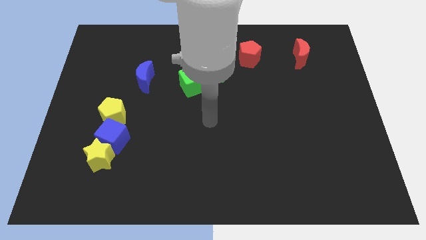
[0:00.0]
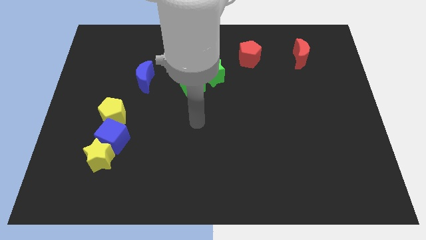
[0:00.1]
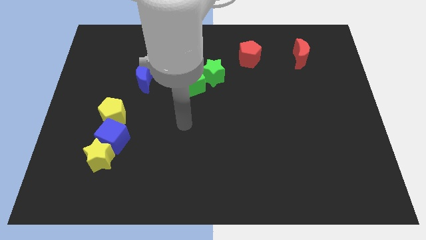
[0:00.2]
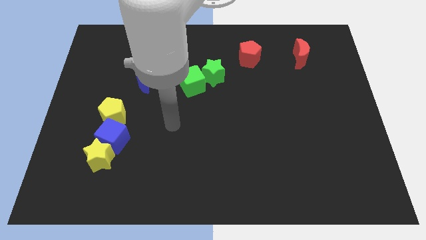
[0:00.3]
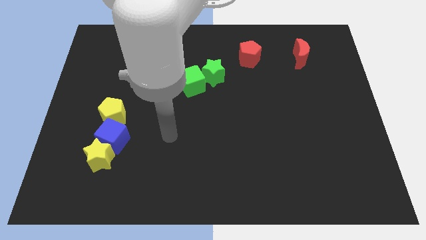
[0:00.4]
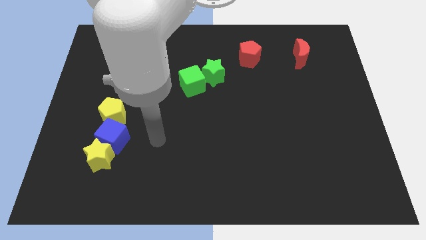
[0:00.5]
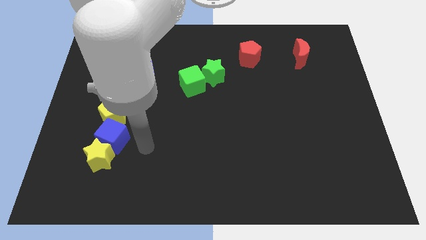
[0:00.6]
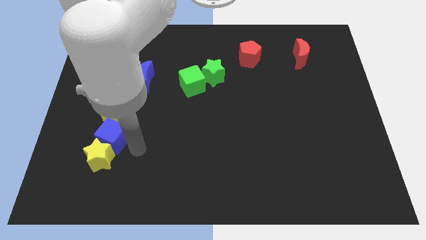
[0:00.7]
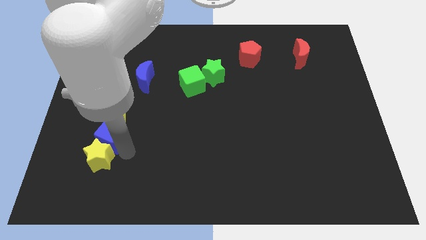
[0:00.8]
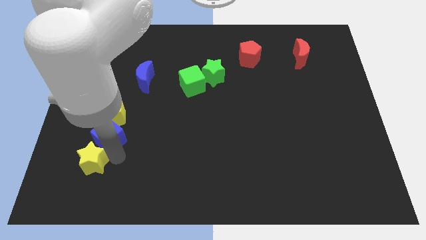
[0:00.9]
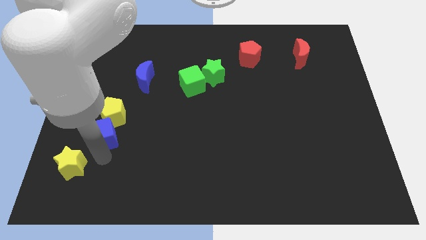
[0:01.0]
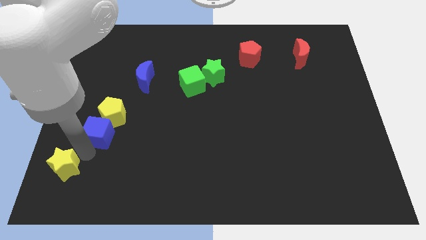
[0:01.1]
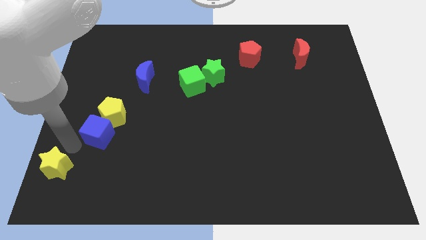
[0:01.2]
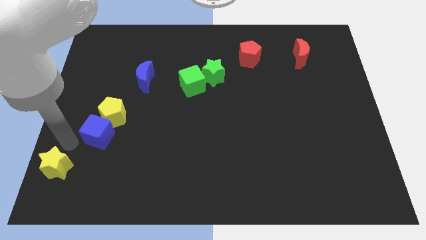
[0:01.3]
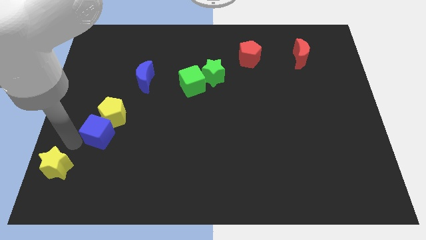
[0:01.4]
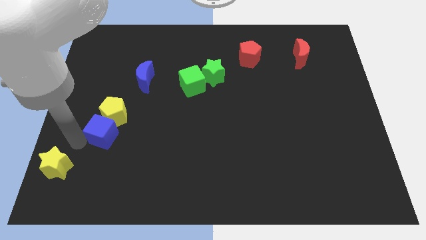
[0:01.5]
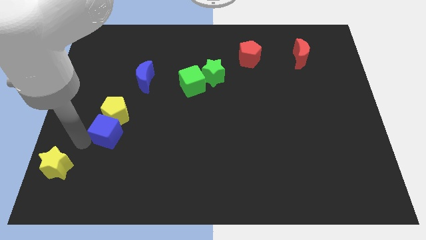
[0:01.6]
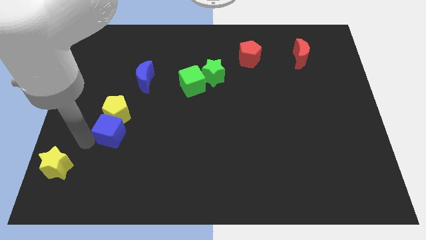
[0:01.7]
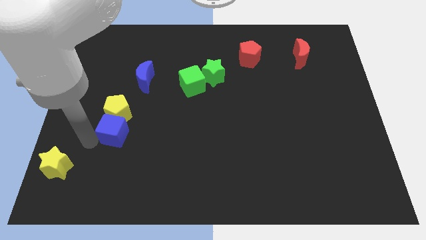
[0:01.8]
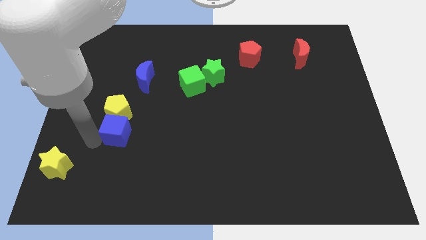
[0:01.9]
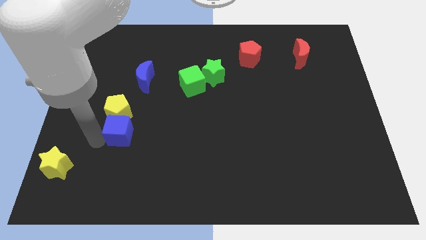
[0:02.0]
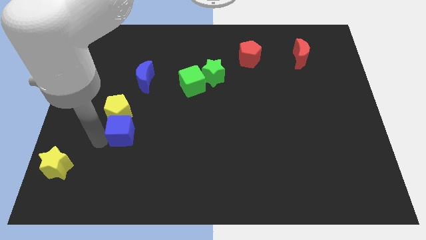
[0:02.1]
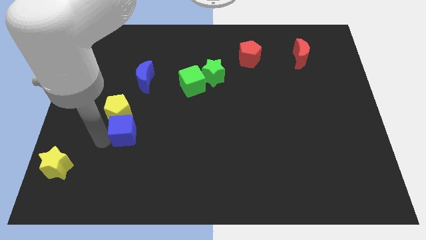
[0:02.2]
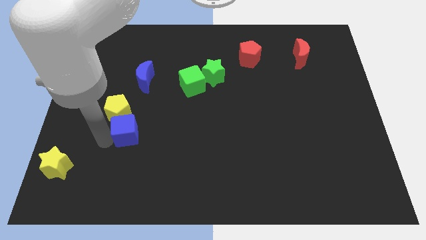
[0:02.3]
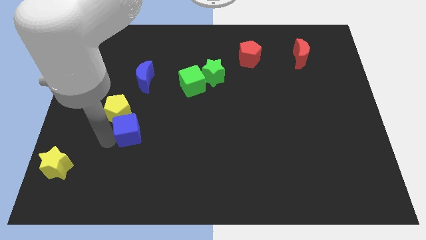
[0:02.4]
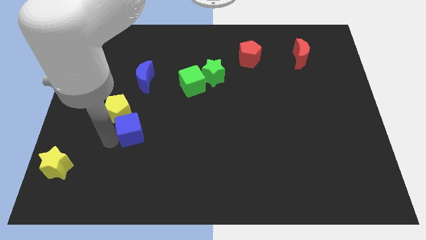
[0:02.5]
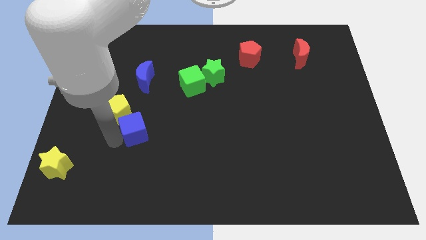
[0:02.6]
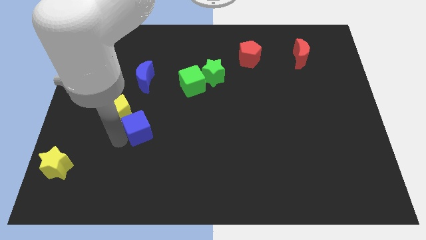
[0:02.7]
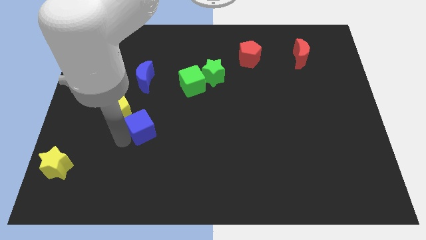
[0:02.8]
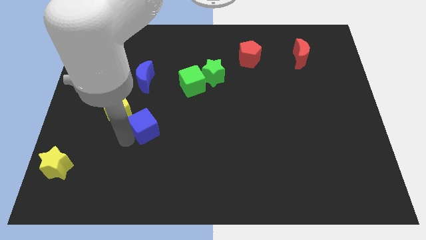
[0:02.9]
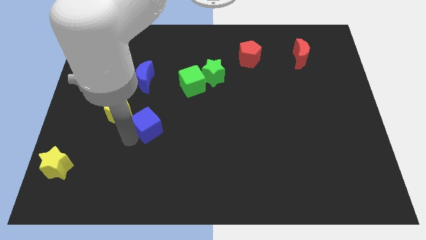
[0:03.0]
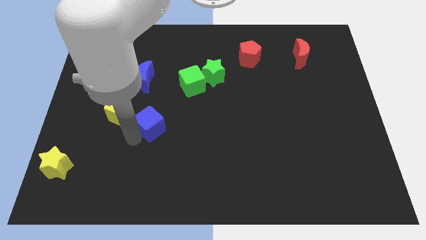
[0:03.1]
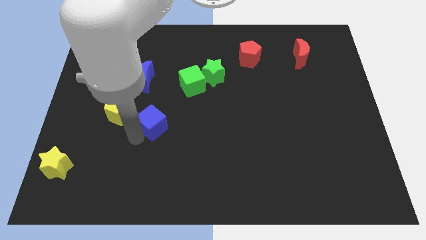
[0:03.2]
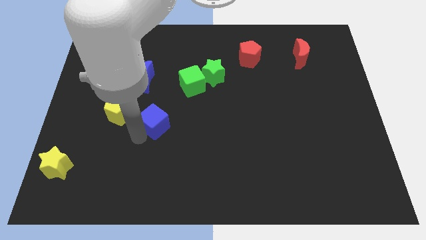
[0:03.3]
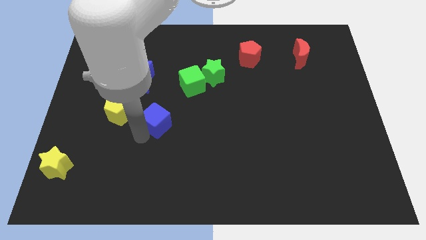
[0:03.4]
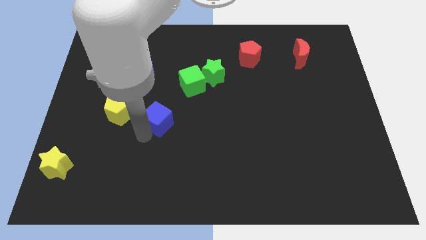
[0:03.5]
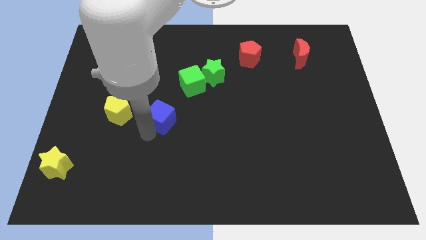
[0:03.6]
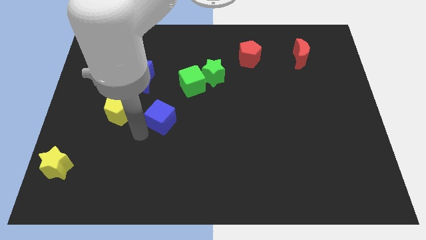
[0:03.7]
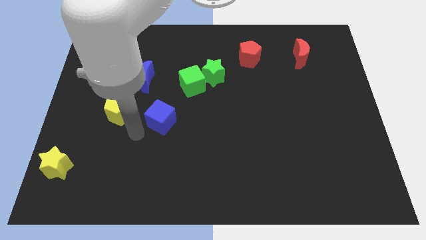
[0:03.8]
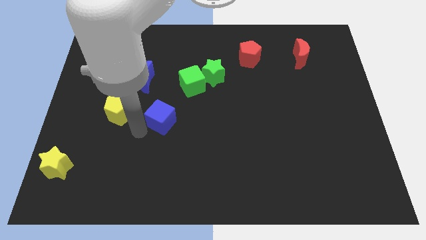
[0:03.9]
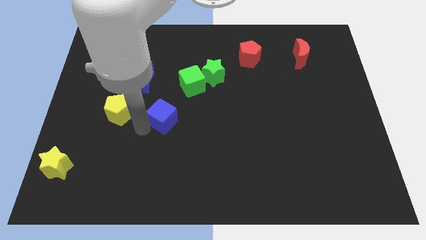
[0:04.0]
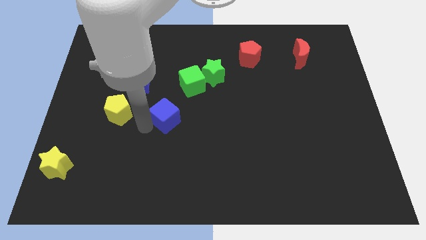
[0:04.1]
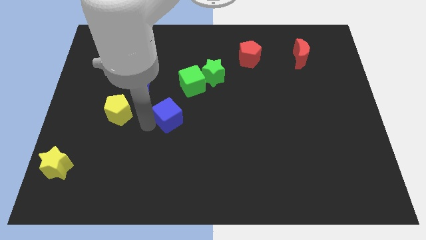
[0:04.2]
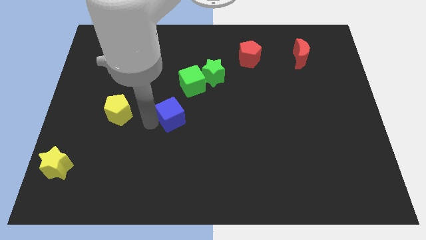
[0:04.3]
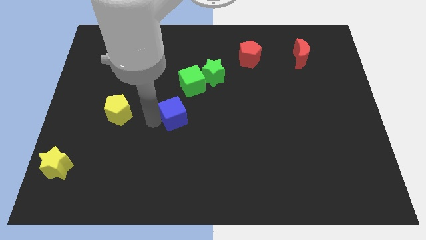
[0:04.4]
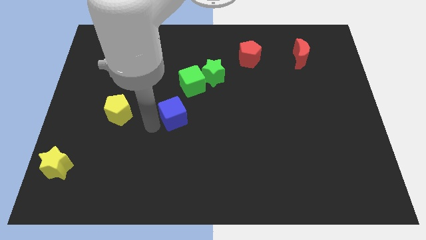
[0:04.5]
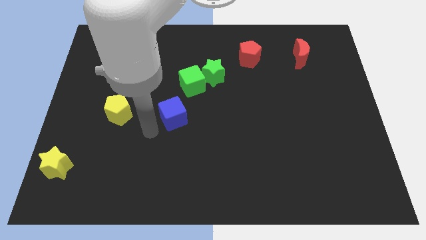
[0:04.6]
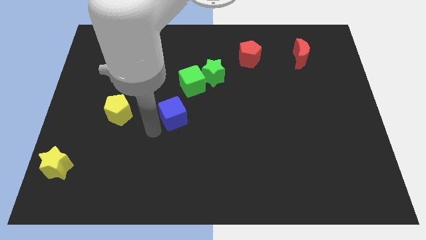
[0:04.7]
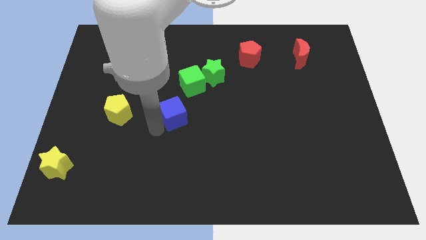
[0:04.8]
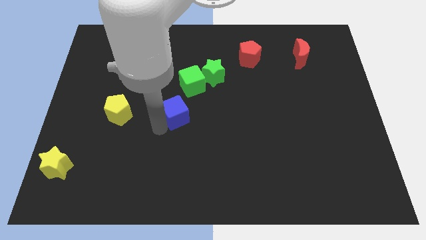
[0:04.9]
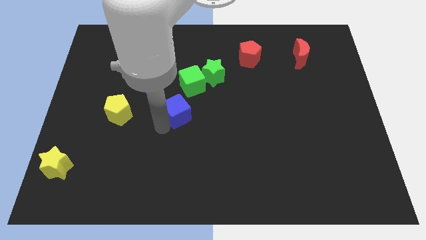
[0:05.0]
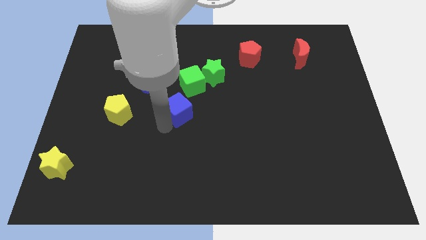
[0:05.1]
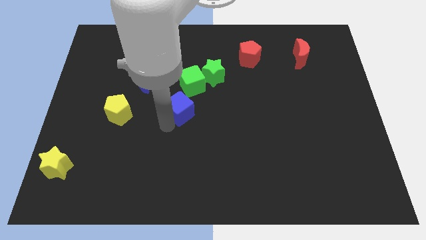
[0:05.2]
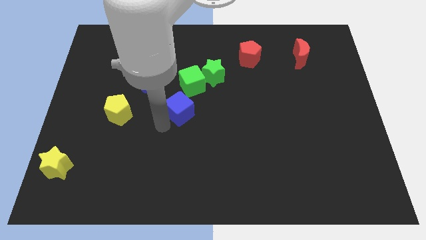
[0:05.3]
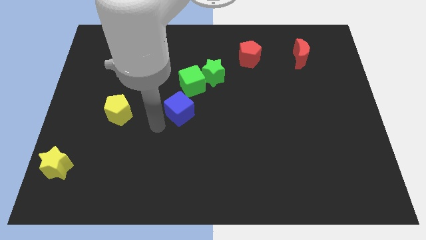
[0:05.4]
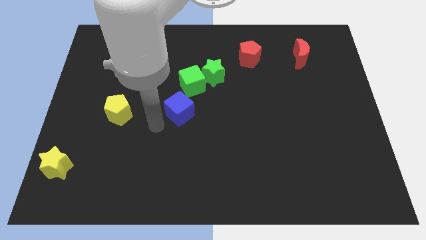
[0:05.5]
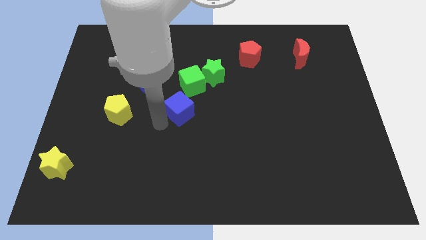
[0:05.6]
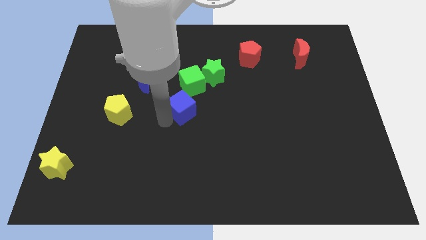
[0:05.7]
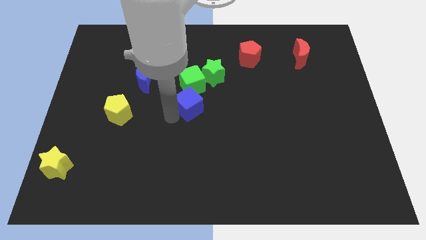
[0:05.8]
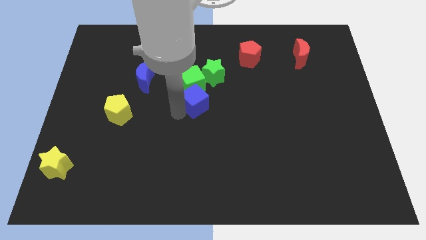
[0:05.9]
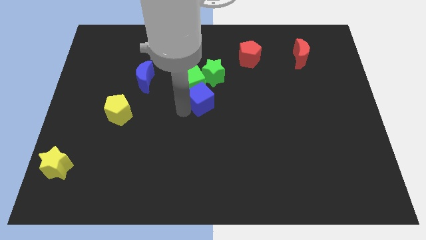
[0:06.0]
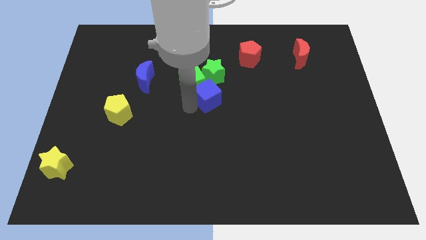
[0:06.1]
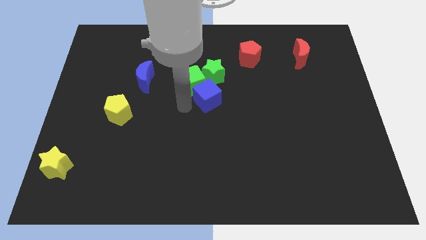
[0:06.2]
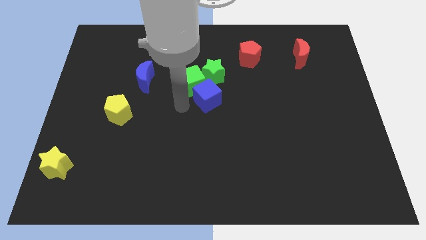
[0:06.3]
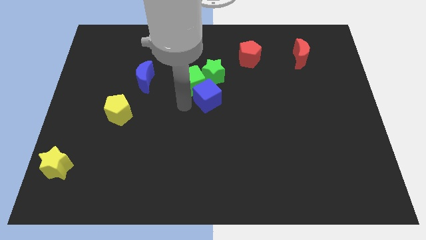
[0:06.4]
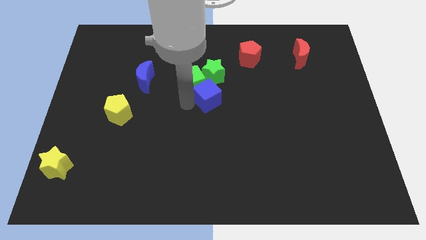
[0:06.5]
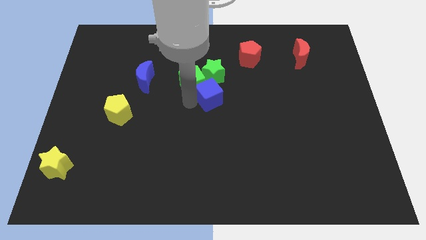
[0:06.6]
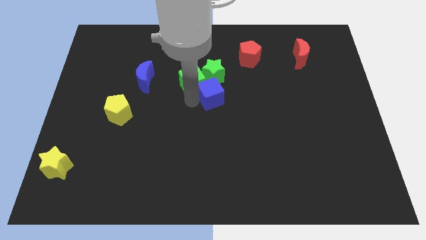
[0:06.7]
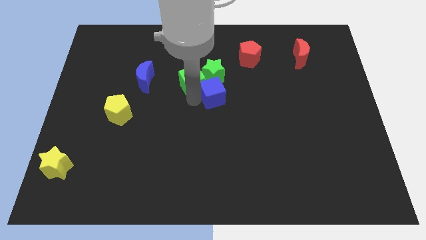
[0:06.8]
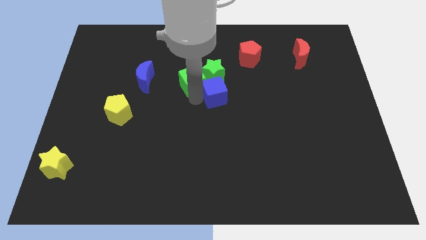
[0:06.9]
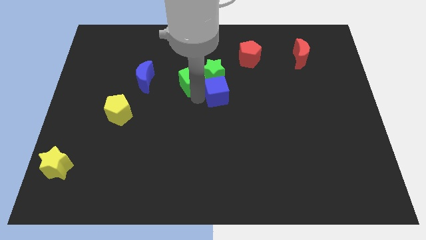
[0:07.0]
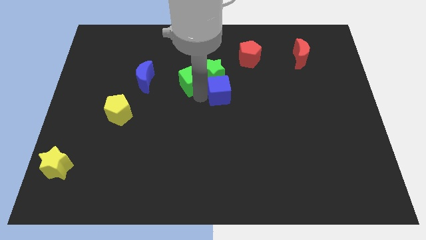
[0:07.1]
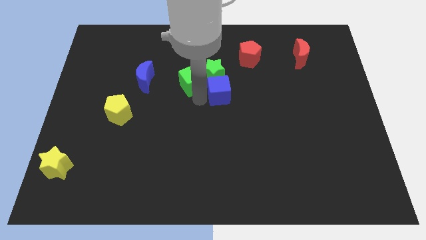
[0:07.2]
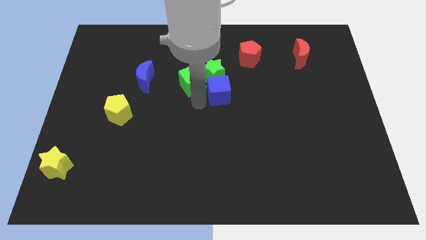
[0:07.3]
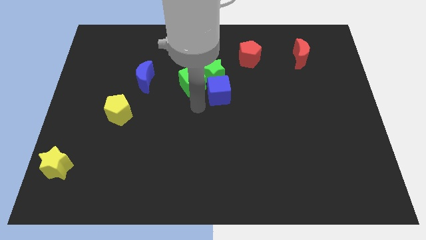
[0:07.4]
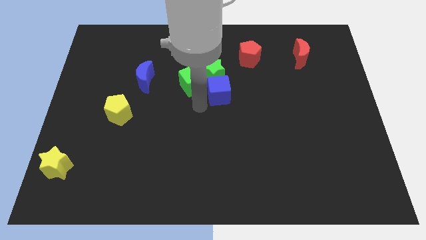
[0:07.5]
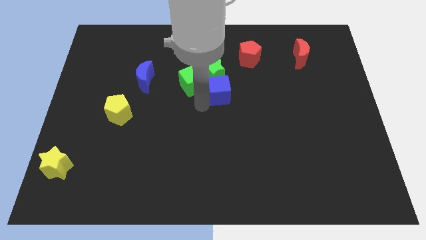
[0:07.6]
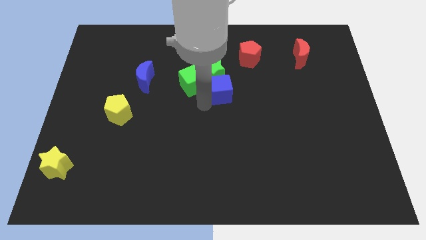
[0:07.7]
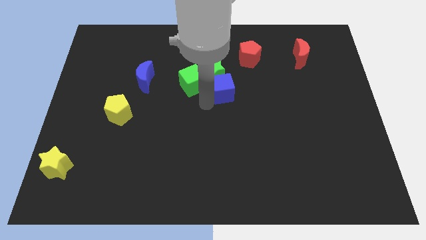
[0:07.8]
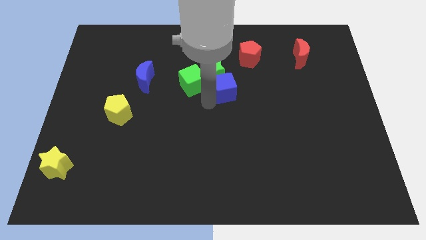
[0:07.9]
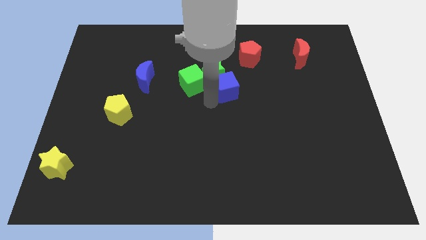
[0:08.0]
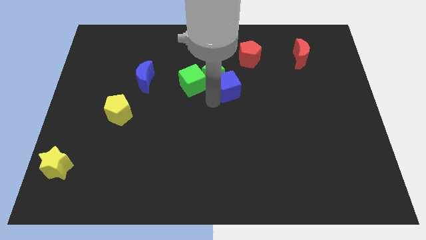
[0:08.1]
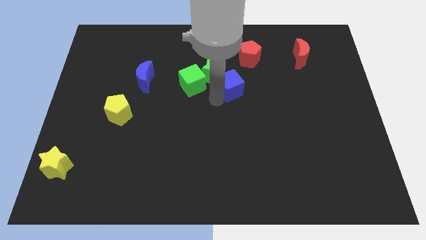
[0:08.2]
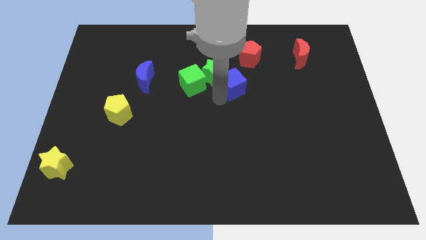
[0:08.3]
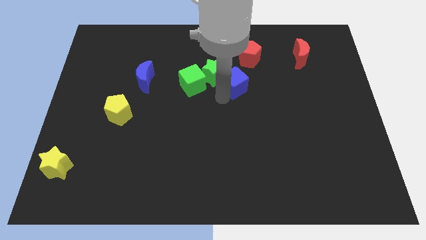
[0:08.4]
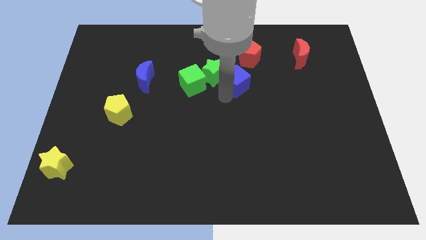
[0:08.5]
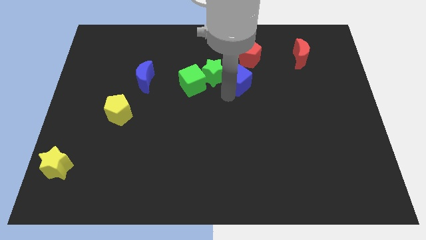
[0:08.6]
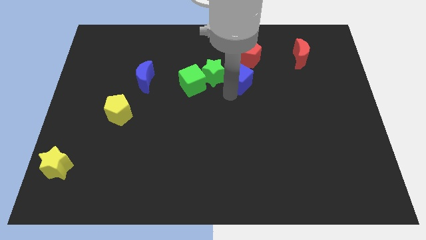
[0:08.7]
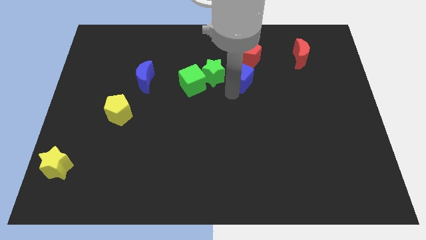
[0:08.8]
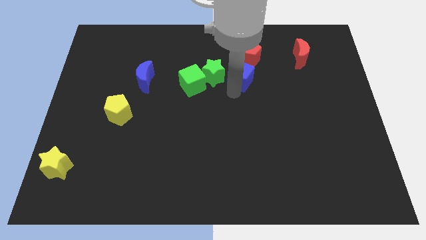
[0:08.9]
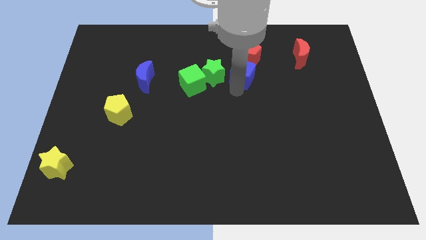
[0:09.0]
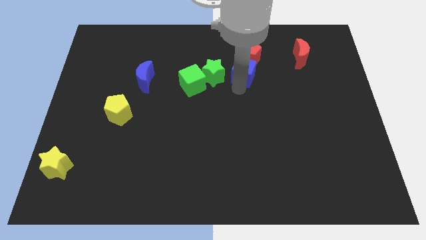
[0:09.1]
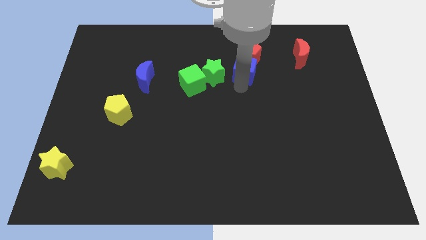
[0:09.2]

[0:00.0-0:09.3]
push the blue cube towards the red pentagon
